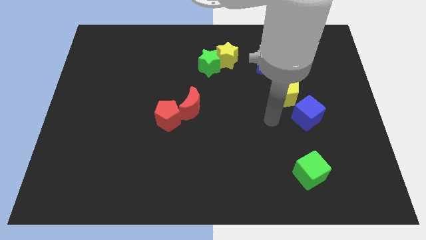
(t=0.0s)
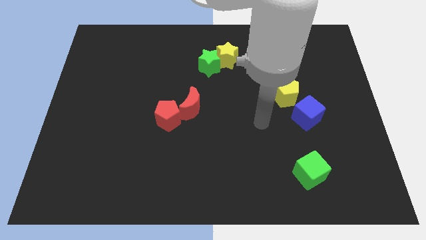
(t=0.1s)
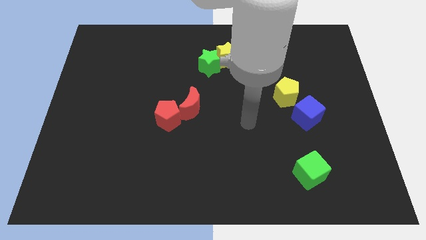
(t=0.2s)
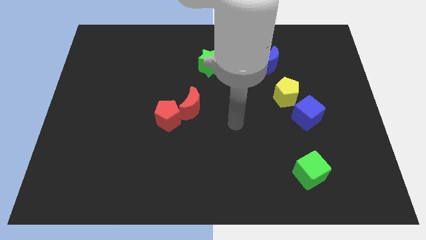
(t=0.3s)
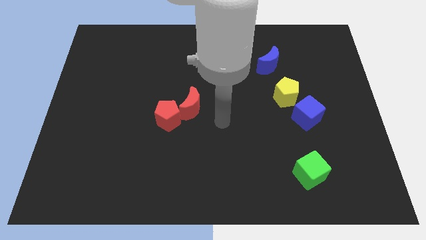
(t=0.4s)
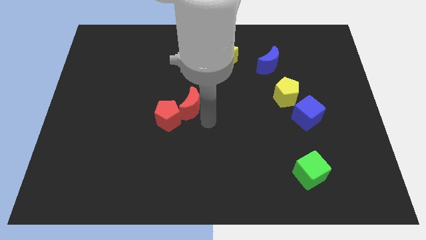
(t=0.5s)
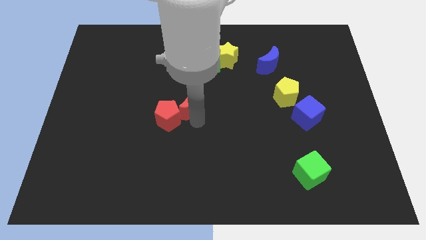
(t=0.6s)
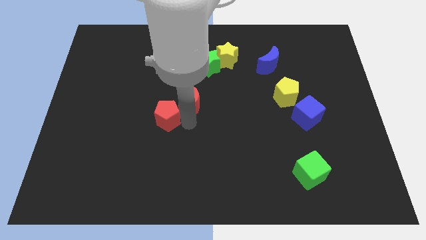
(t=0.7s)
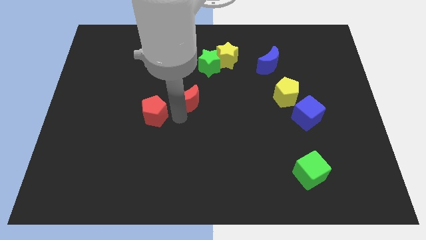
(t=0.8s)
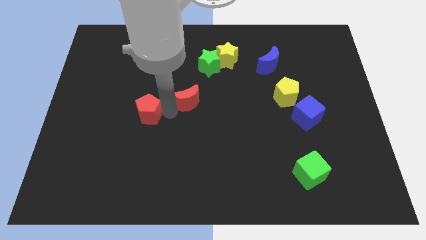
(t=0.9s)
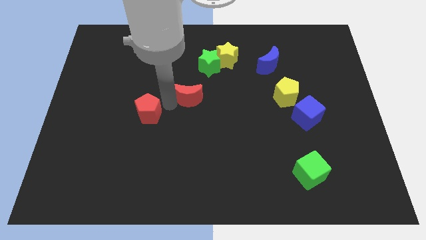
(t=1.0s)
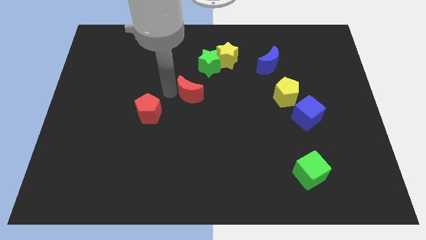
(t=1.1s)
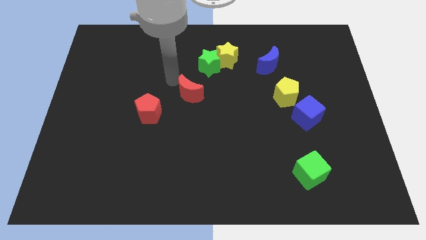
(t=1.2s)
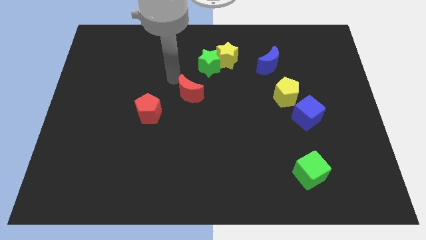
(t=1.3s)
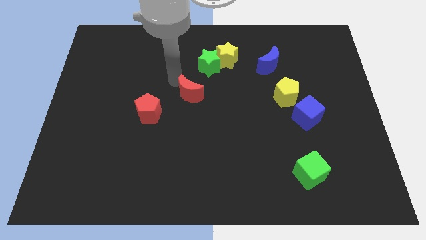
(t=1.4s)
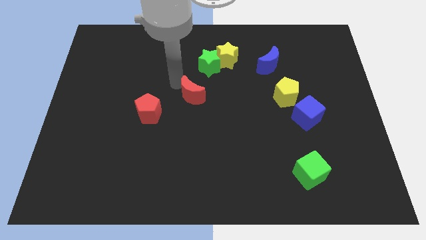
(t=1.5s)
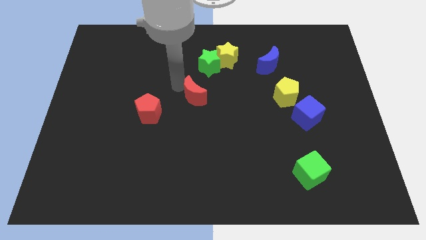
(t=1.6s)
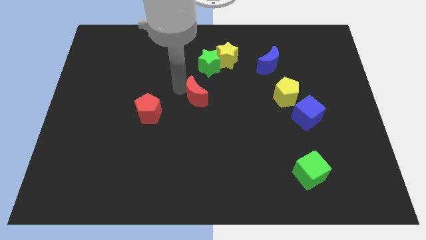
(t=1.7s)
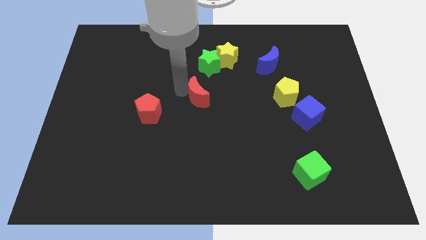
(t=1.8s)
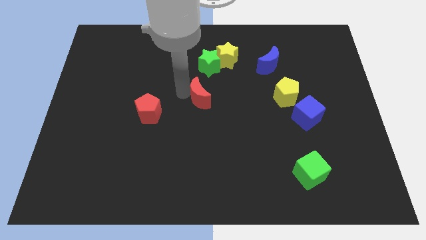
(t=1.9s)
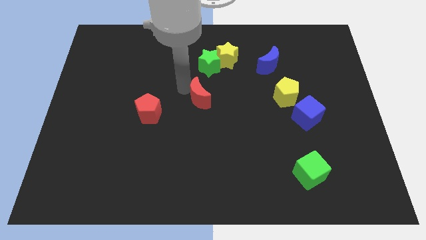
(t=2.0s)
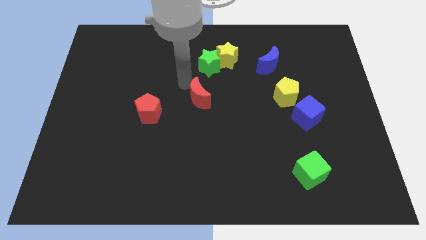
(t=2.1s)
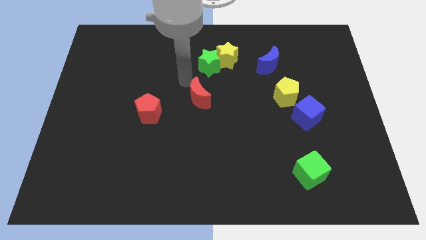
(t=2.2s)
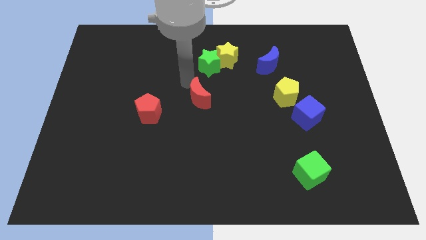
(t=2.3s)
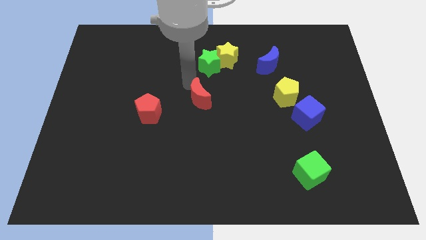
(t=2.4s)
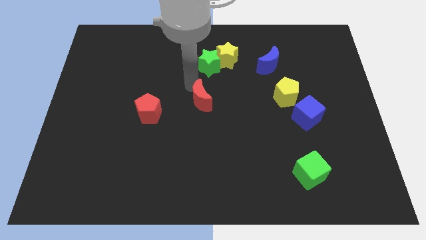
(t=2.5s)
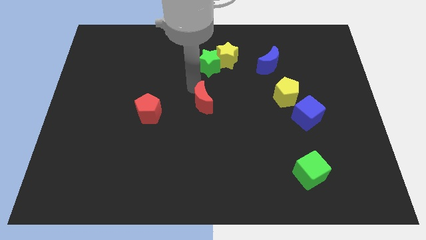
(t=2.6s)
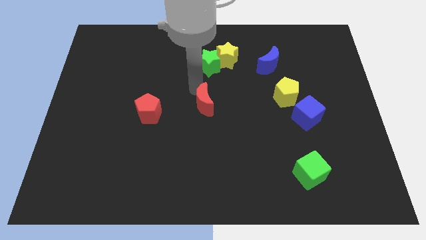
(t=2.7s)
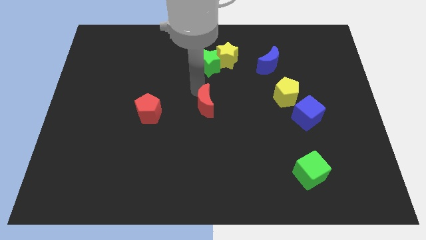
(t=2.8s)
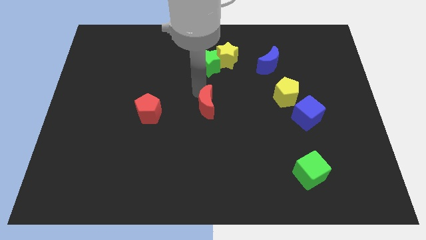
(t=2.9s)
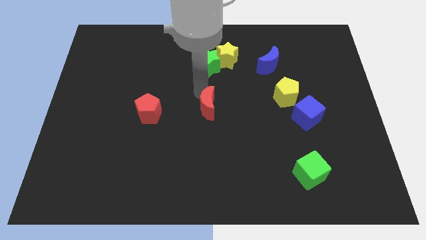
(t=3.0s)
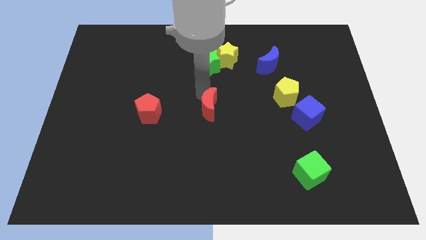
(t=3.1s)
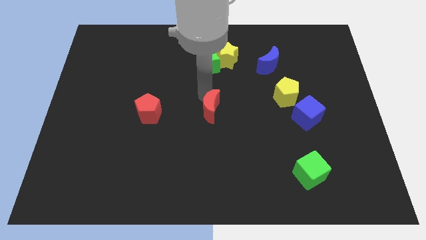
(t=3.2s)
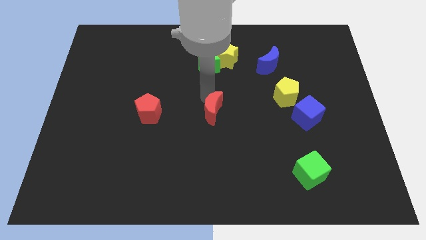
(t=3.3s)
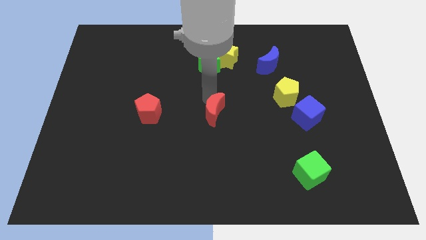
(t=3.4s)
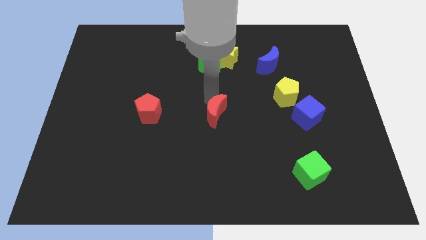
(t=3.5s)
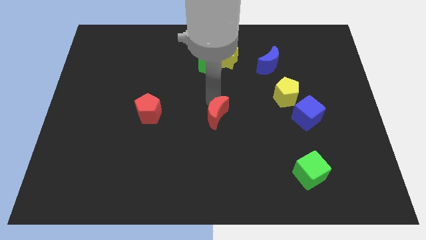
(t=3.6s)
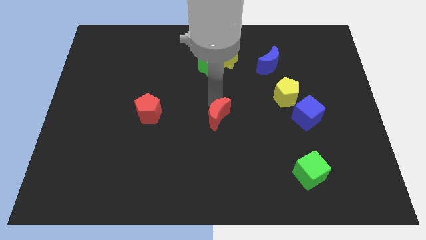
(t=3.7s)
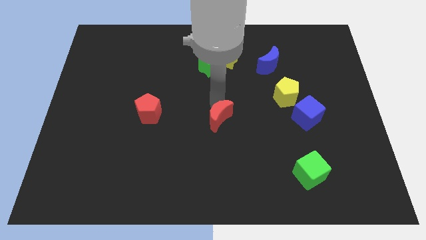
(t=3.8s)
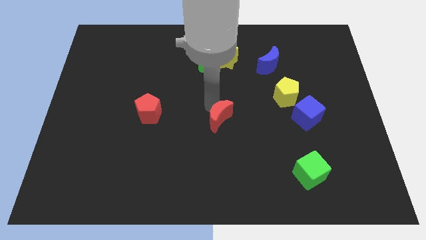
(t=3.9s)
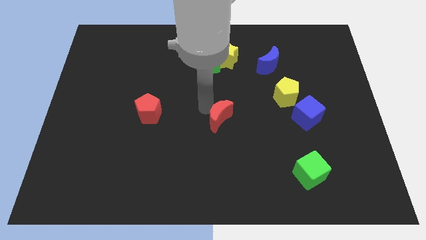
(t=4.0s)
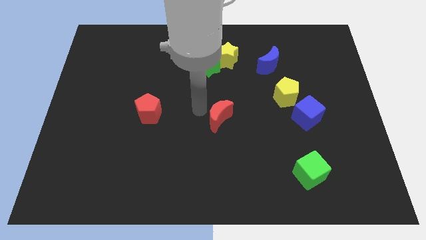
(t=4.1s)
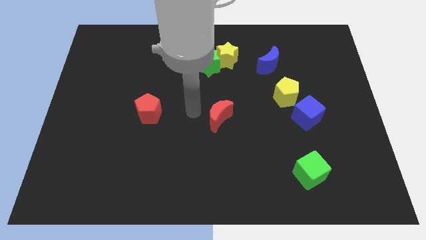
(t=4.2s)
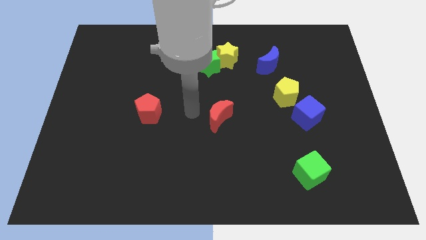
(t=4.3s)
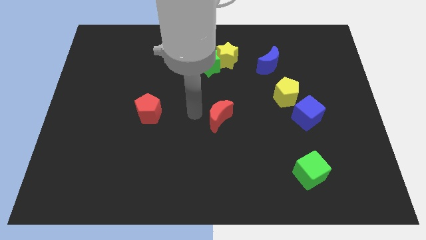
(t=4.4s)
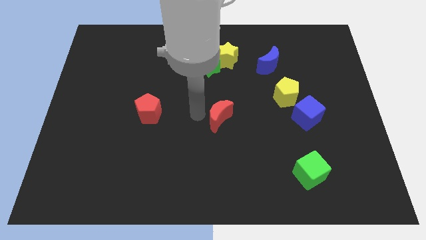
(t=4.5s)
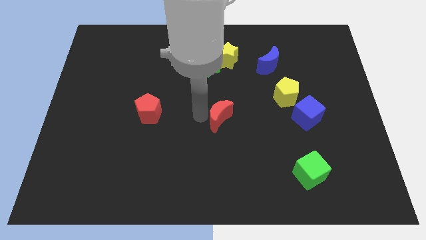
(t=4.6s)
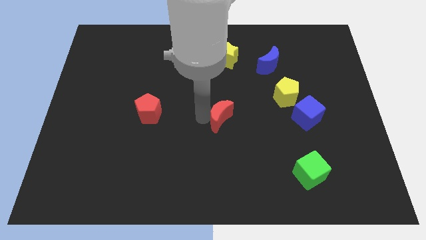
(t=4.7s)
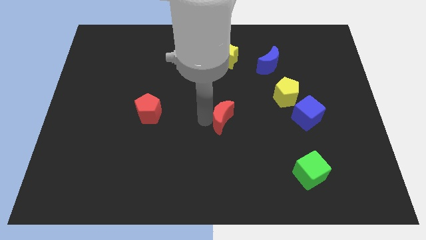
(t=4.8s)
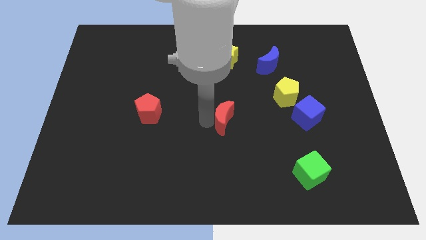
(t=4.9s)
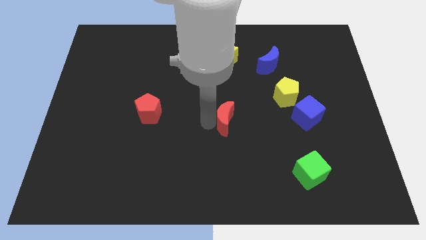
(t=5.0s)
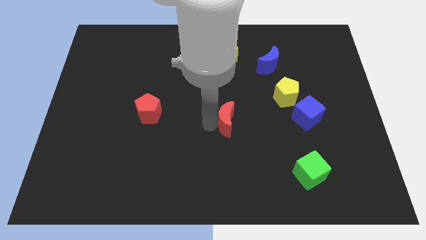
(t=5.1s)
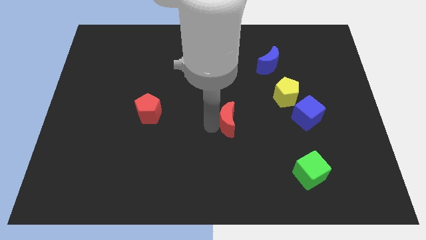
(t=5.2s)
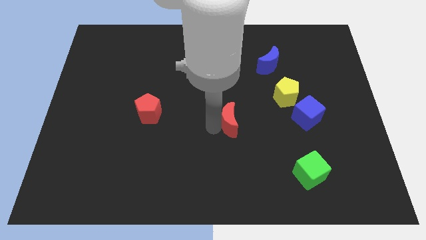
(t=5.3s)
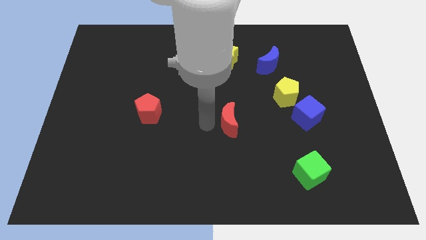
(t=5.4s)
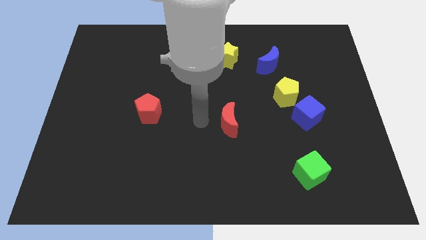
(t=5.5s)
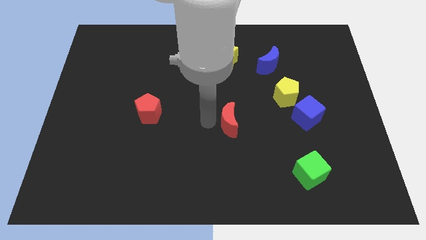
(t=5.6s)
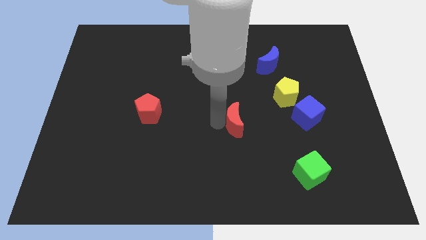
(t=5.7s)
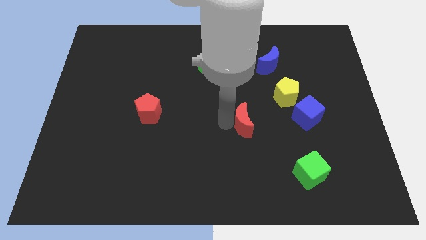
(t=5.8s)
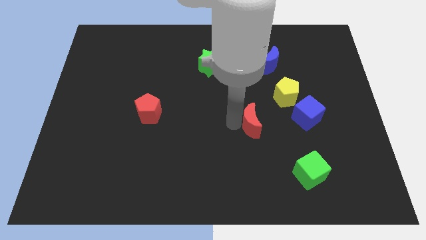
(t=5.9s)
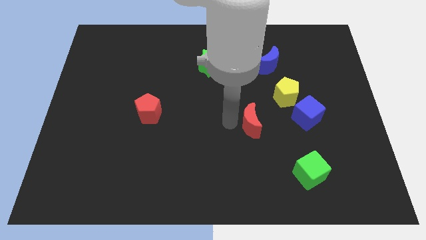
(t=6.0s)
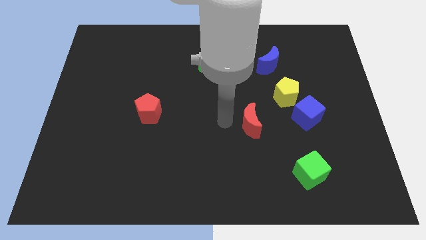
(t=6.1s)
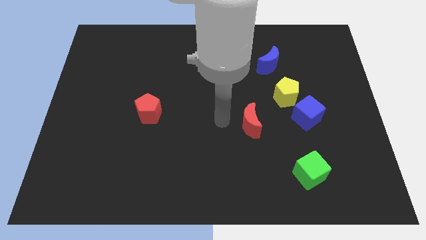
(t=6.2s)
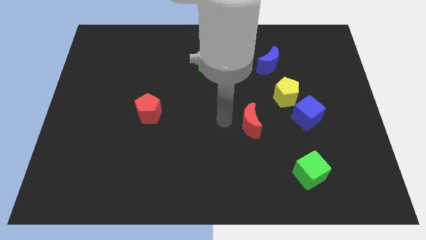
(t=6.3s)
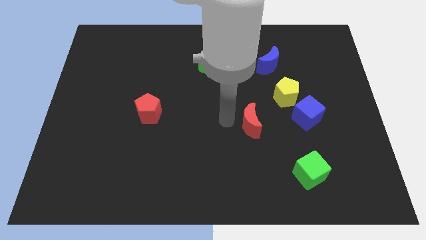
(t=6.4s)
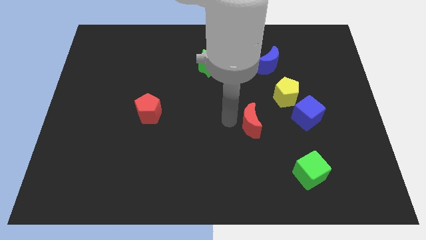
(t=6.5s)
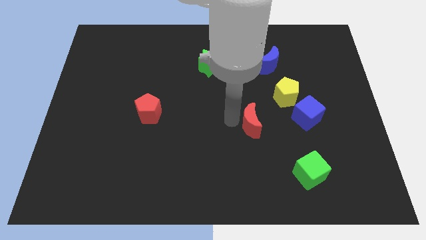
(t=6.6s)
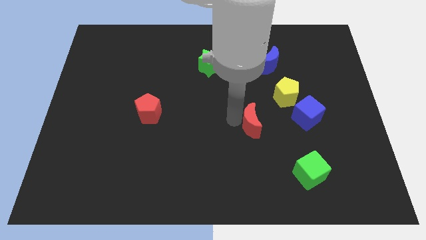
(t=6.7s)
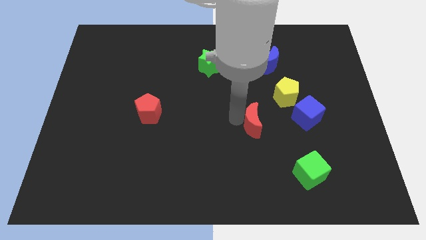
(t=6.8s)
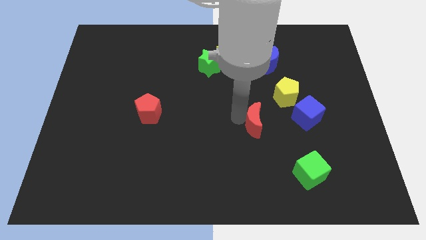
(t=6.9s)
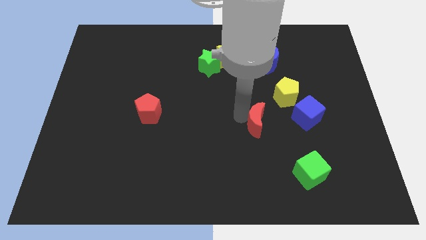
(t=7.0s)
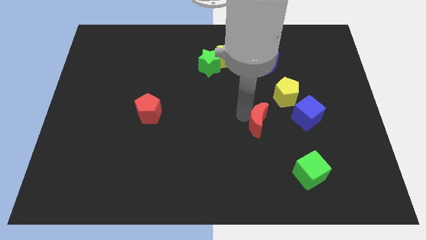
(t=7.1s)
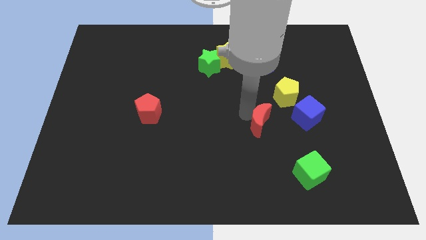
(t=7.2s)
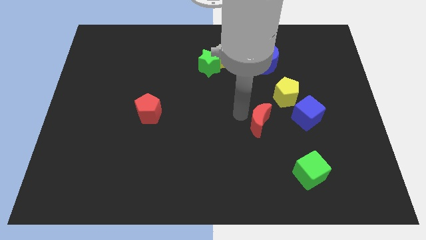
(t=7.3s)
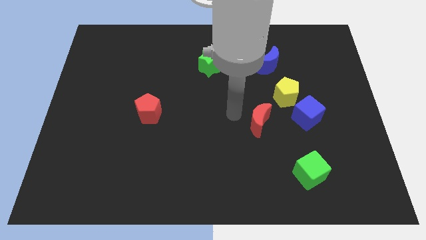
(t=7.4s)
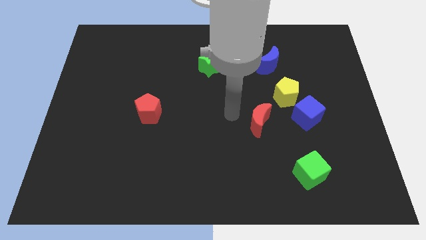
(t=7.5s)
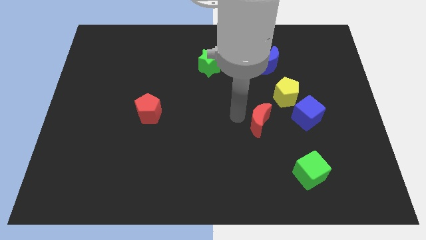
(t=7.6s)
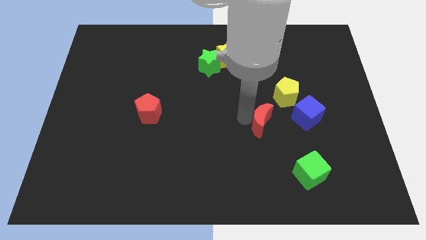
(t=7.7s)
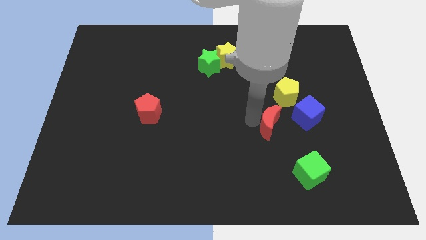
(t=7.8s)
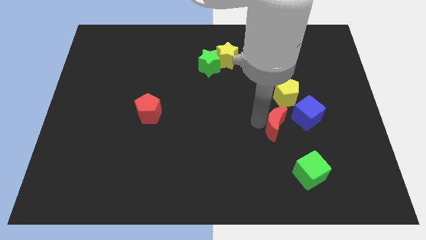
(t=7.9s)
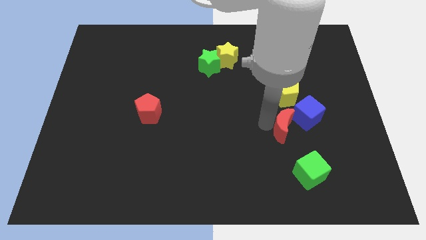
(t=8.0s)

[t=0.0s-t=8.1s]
put the red moon above the green cube
